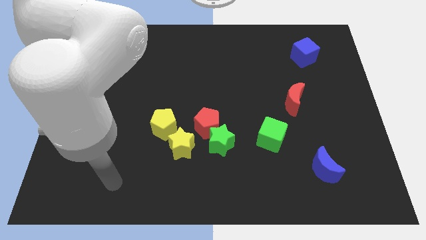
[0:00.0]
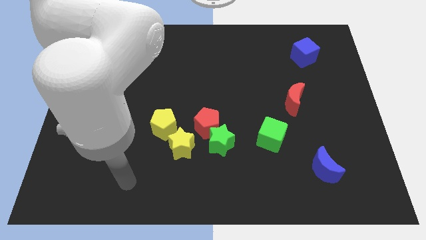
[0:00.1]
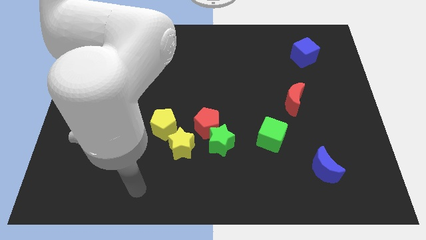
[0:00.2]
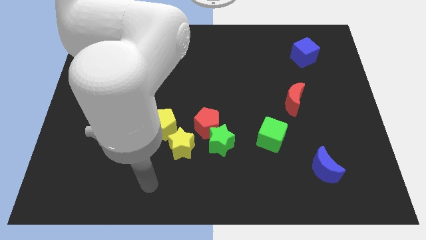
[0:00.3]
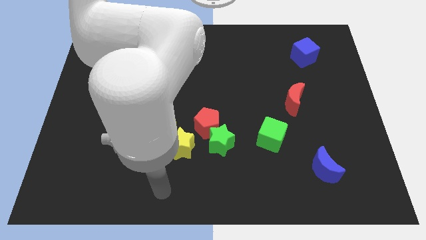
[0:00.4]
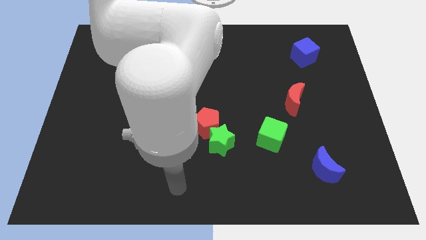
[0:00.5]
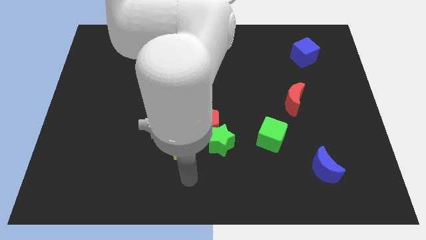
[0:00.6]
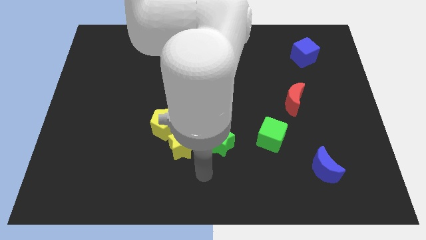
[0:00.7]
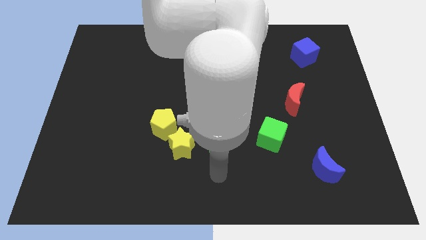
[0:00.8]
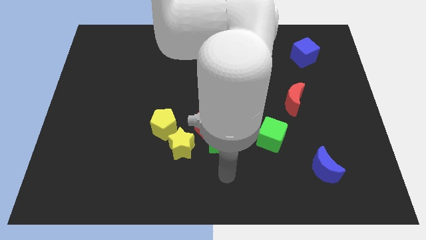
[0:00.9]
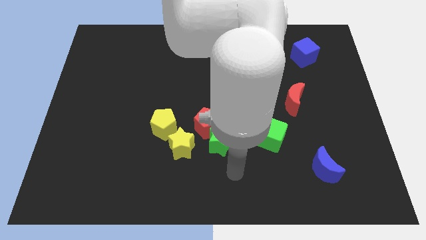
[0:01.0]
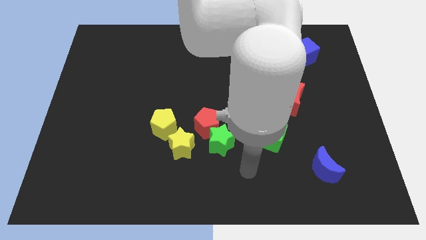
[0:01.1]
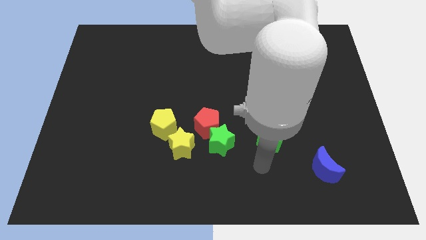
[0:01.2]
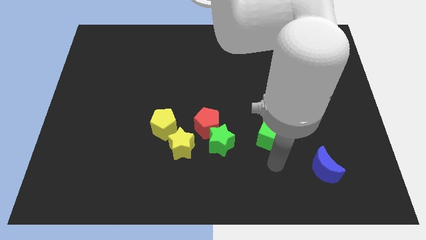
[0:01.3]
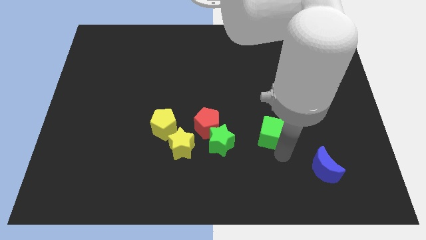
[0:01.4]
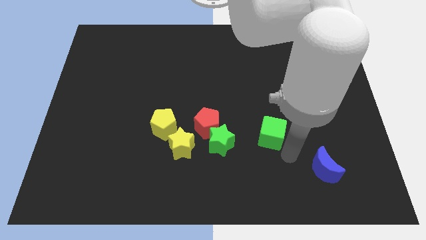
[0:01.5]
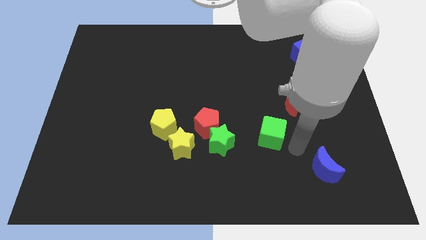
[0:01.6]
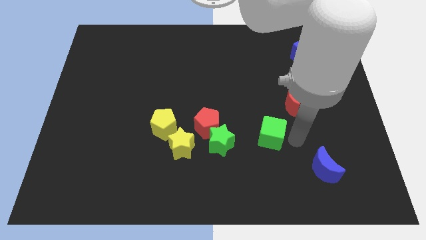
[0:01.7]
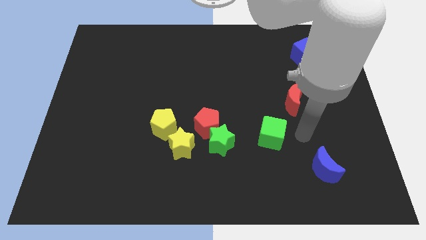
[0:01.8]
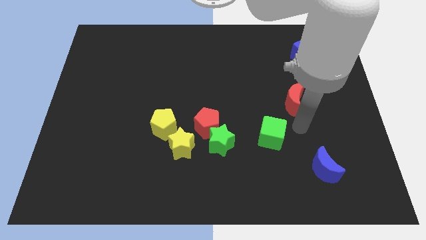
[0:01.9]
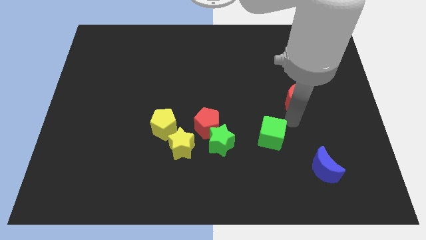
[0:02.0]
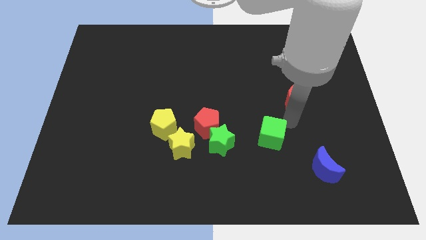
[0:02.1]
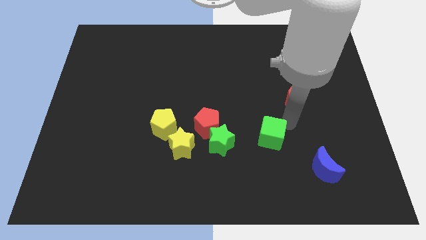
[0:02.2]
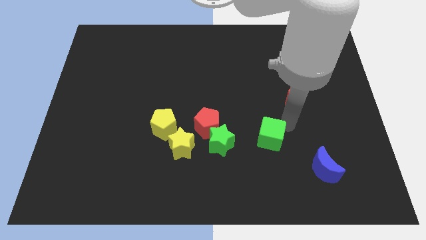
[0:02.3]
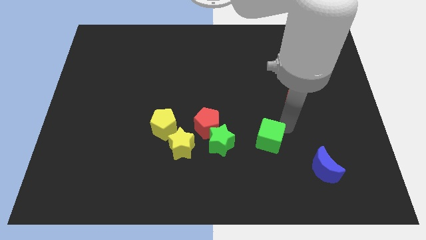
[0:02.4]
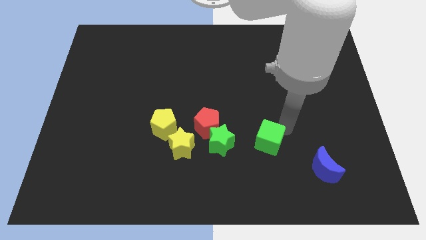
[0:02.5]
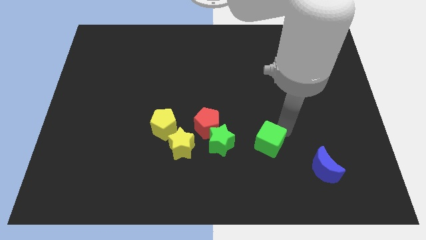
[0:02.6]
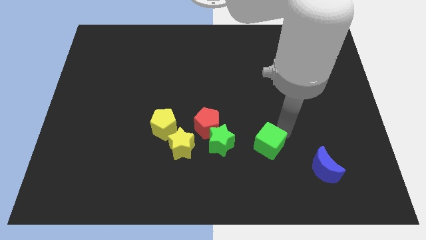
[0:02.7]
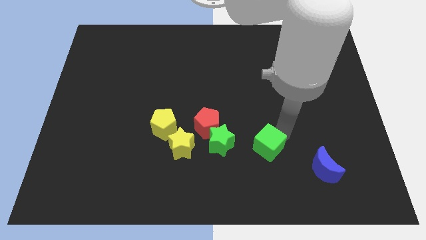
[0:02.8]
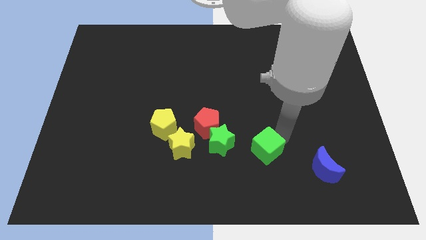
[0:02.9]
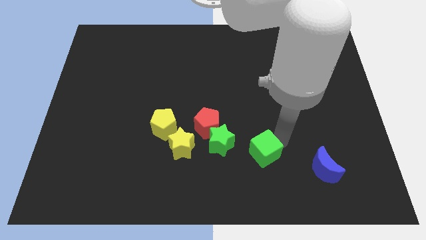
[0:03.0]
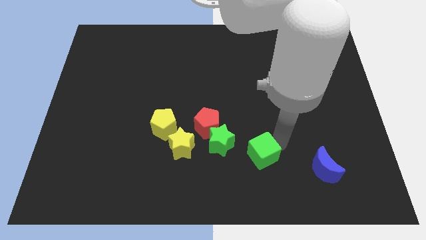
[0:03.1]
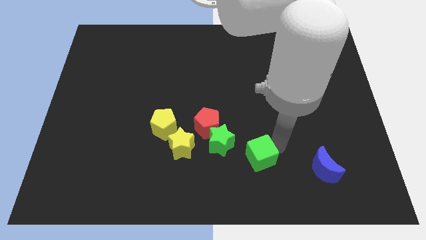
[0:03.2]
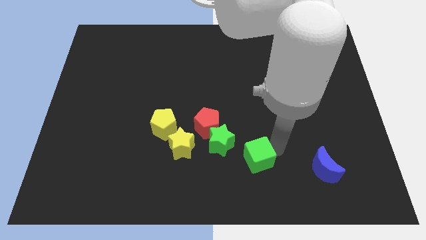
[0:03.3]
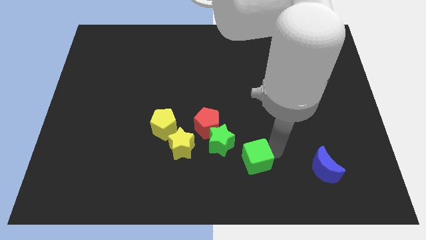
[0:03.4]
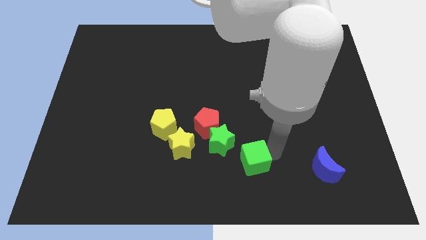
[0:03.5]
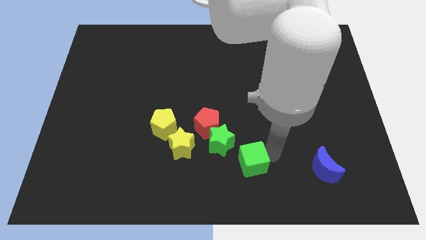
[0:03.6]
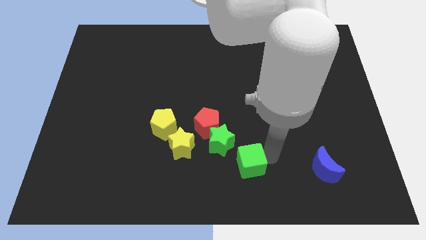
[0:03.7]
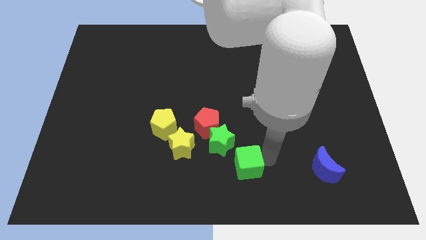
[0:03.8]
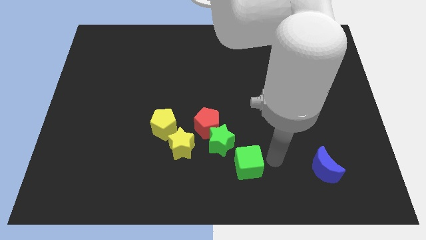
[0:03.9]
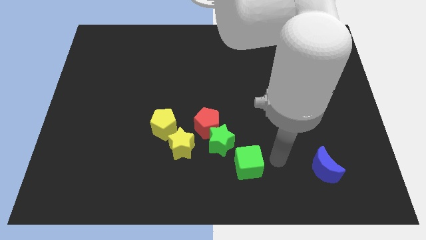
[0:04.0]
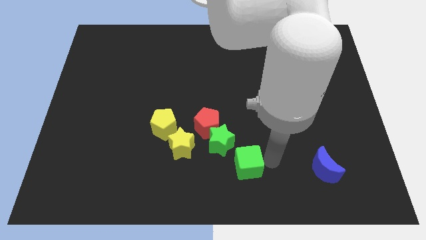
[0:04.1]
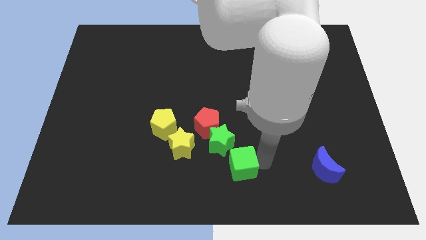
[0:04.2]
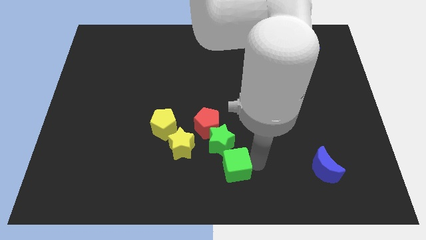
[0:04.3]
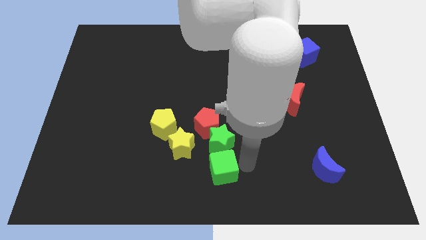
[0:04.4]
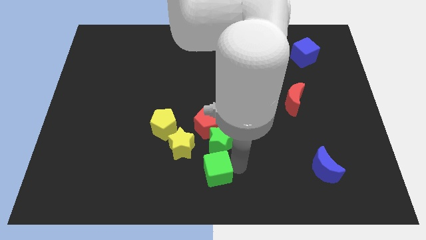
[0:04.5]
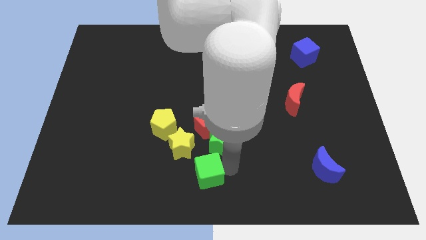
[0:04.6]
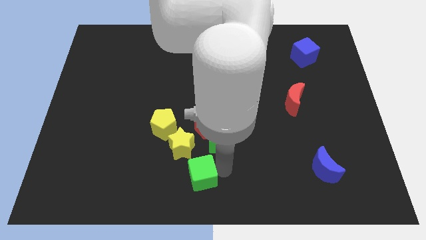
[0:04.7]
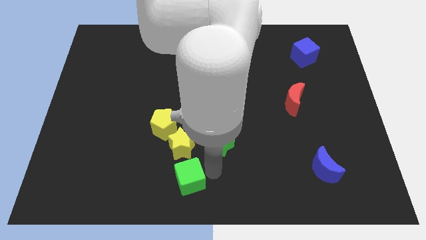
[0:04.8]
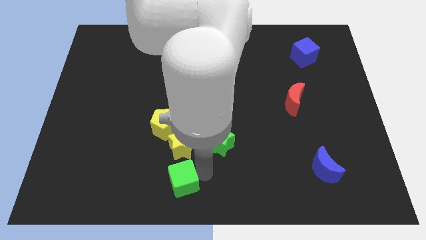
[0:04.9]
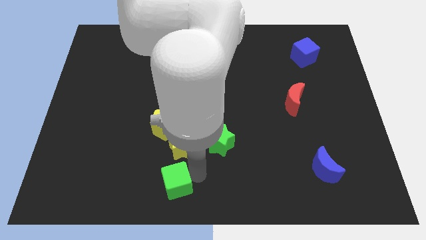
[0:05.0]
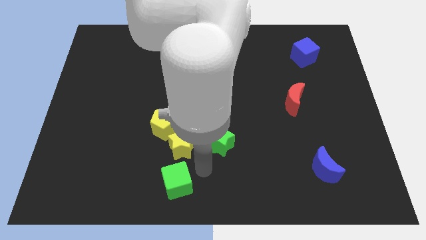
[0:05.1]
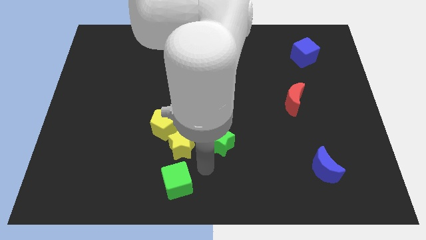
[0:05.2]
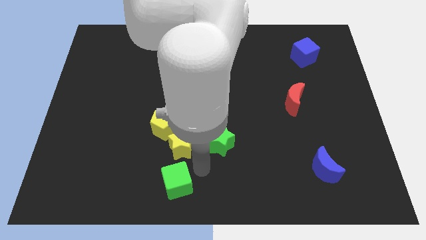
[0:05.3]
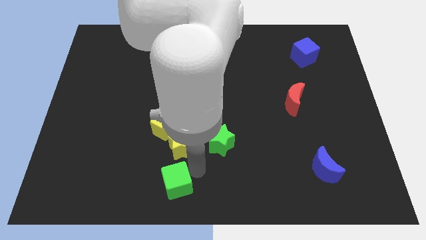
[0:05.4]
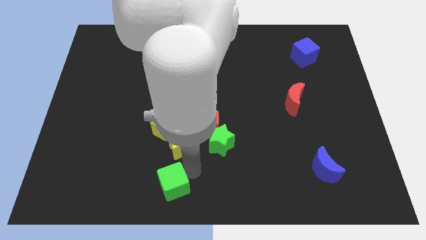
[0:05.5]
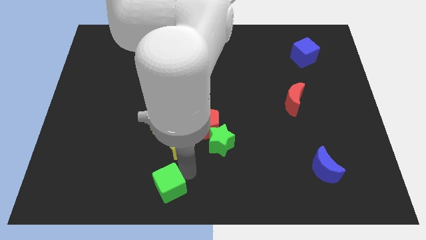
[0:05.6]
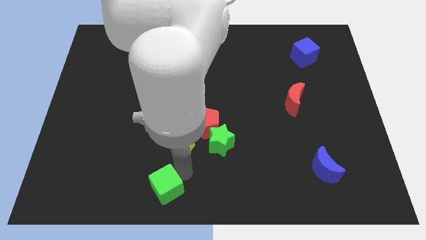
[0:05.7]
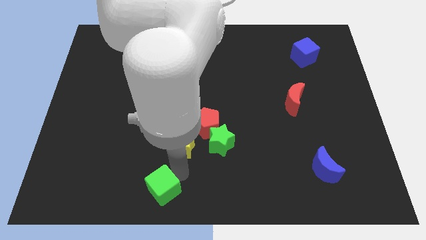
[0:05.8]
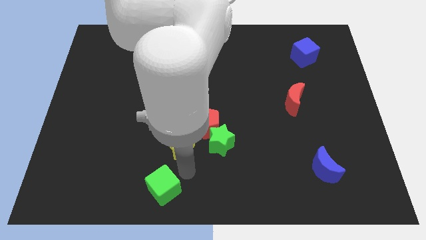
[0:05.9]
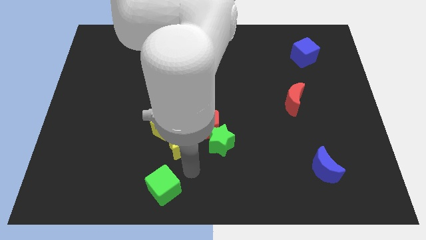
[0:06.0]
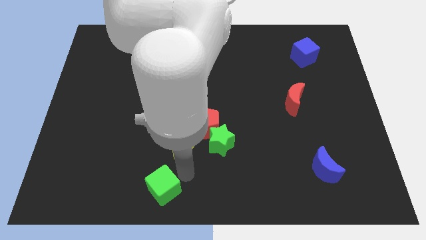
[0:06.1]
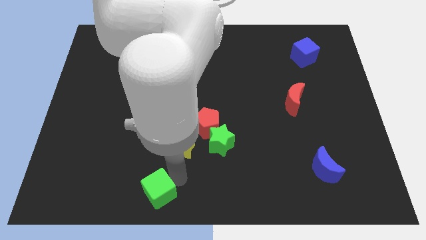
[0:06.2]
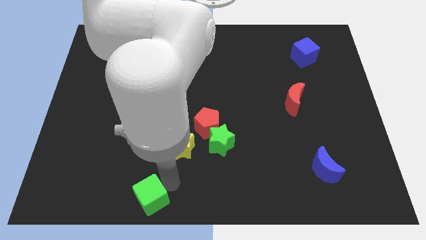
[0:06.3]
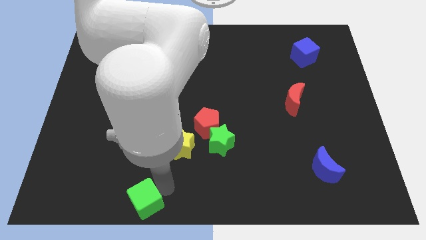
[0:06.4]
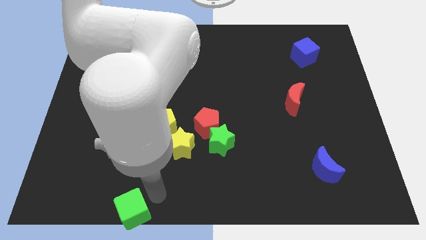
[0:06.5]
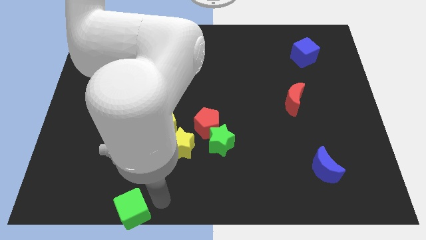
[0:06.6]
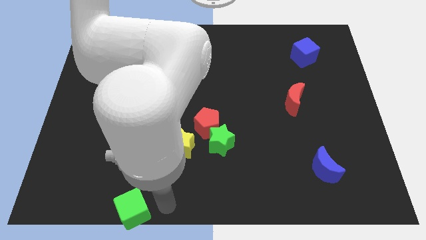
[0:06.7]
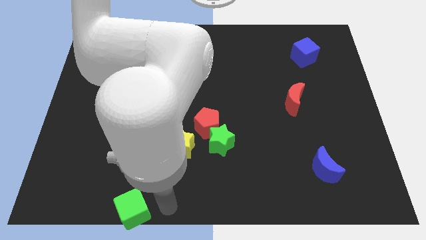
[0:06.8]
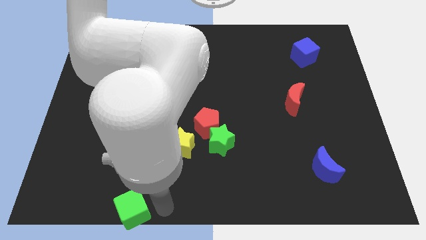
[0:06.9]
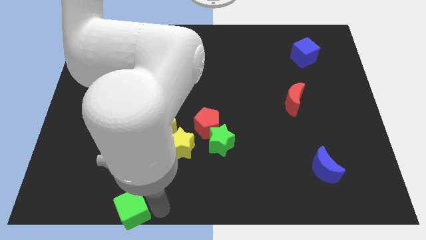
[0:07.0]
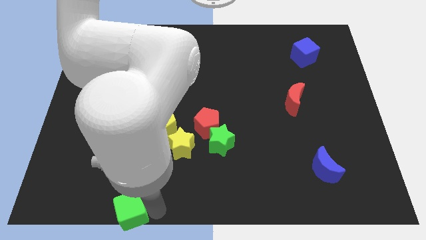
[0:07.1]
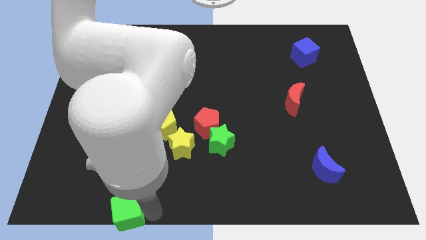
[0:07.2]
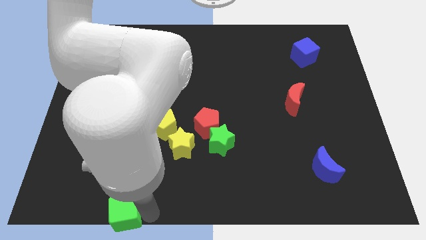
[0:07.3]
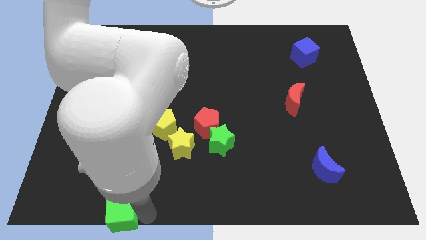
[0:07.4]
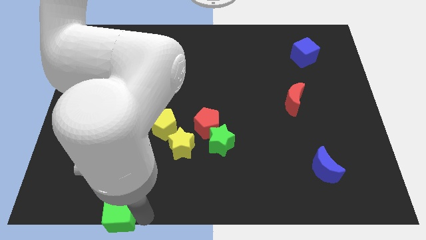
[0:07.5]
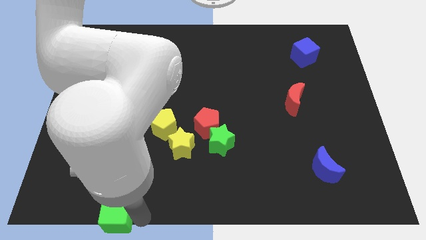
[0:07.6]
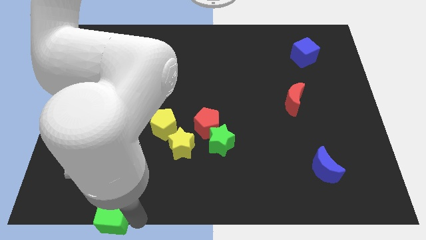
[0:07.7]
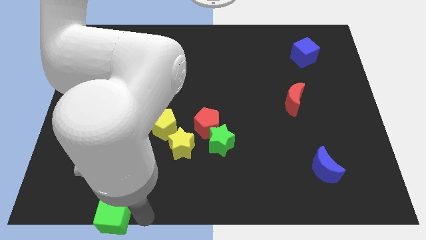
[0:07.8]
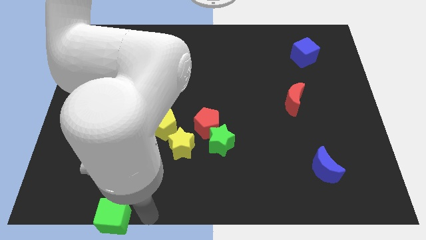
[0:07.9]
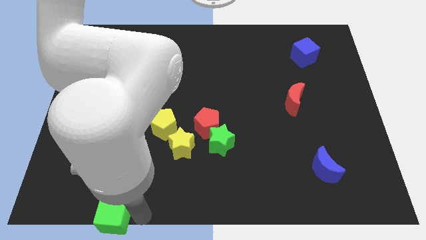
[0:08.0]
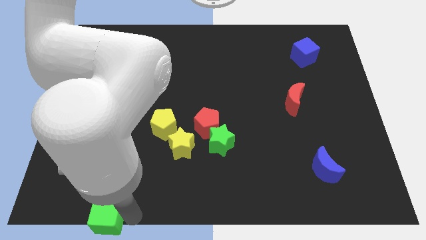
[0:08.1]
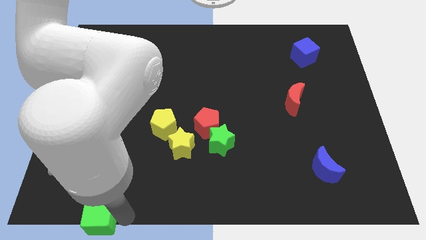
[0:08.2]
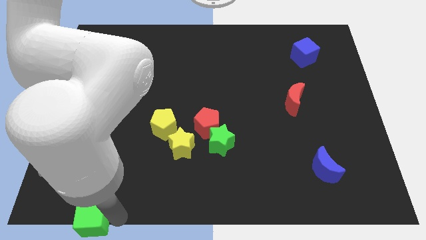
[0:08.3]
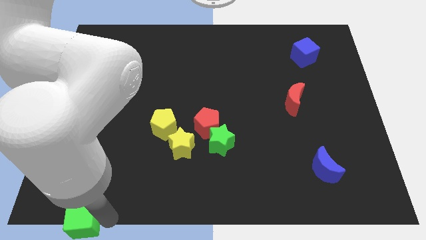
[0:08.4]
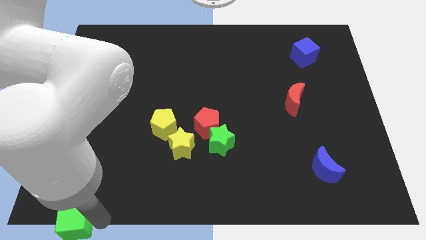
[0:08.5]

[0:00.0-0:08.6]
move the green cube to the bottom left of the board
